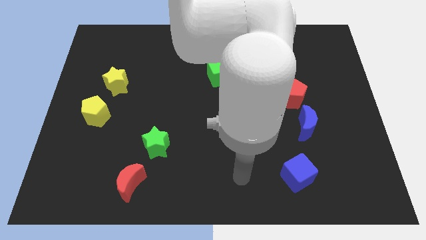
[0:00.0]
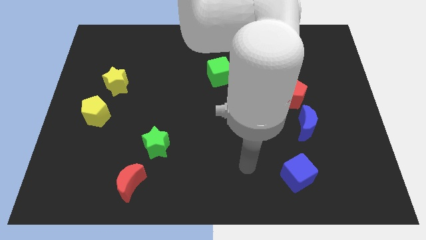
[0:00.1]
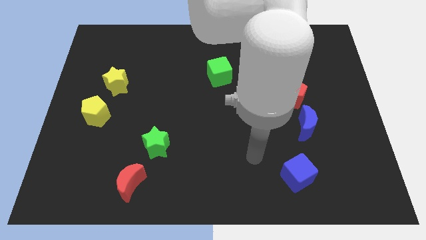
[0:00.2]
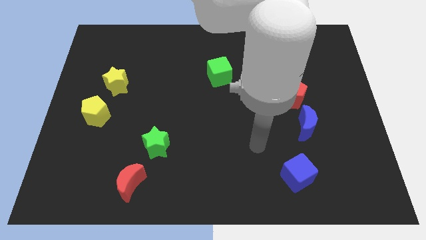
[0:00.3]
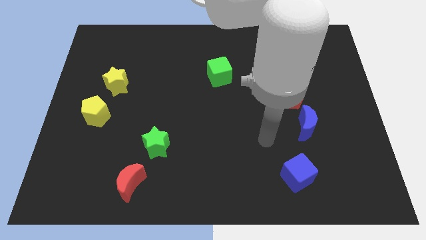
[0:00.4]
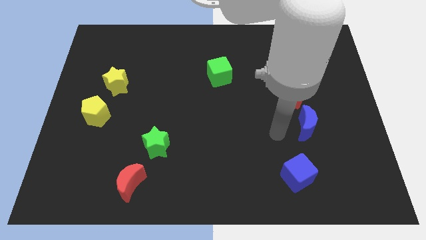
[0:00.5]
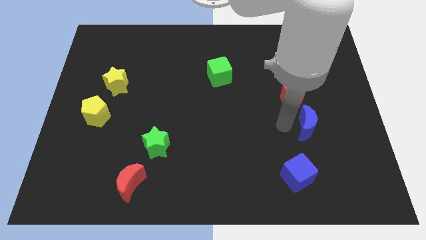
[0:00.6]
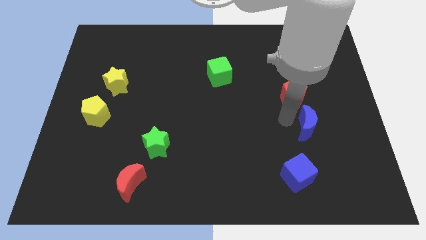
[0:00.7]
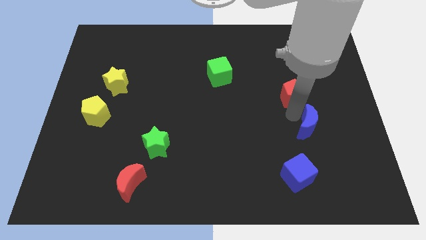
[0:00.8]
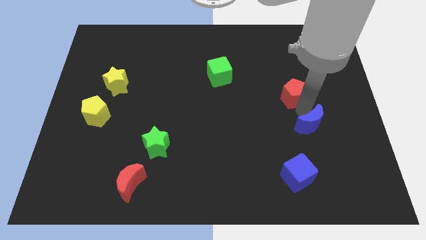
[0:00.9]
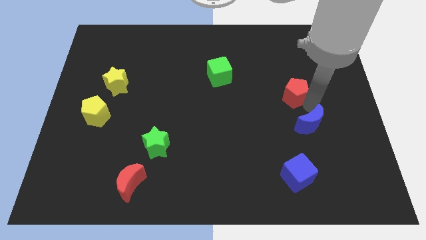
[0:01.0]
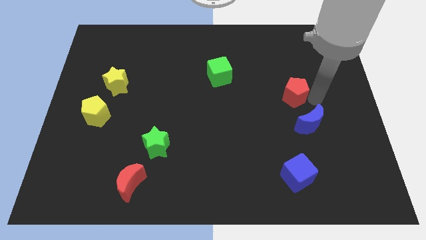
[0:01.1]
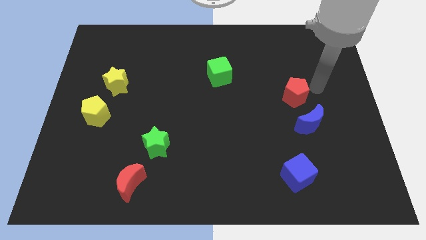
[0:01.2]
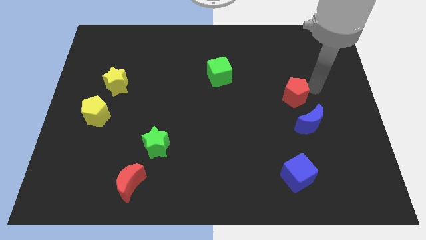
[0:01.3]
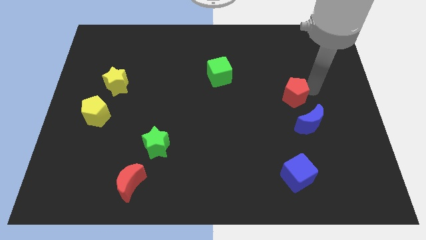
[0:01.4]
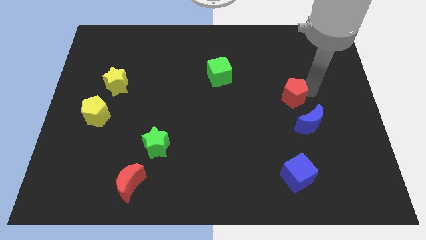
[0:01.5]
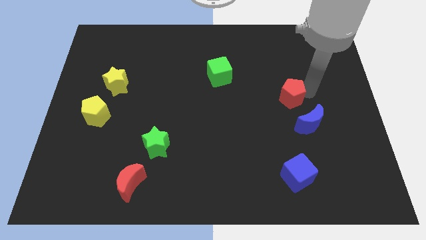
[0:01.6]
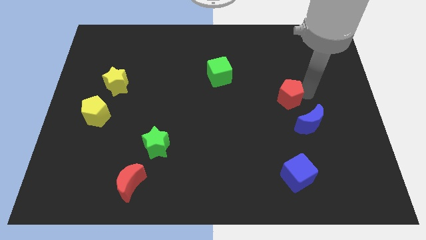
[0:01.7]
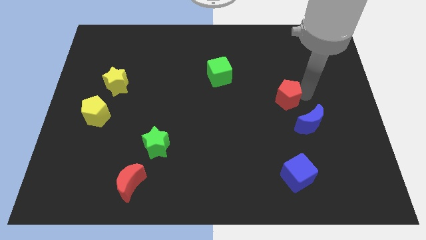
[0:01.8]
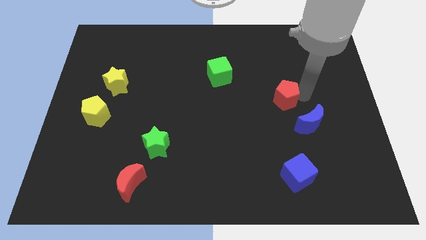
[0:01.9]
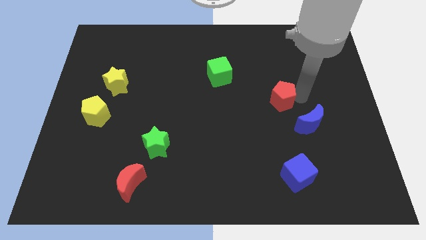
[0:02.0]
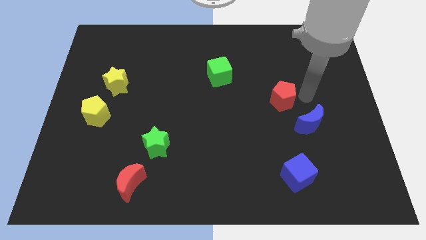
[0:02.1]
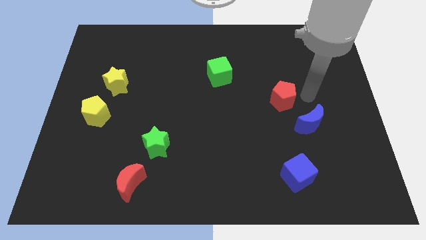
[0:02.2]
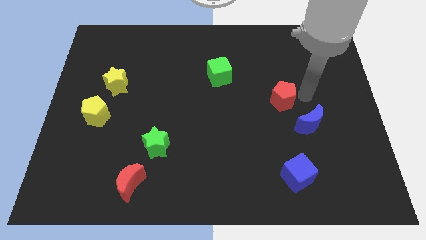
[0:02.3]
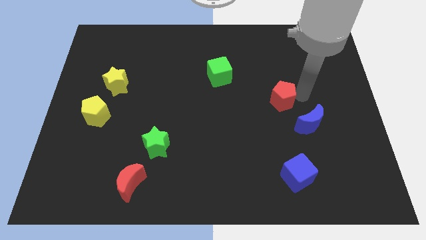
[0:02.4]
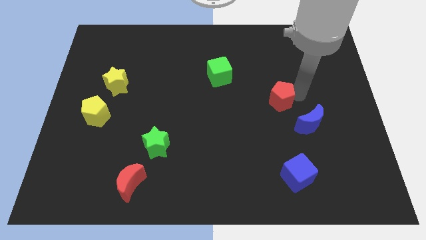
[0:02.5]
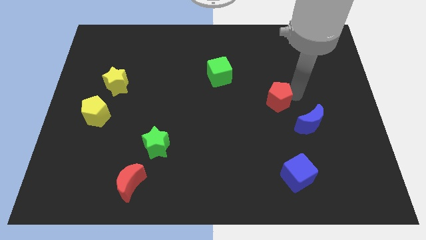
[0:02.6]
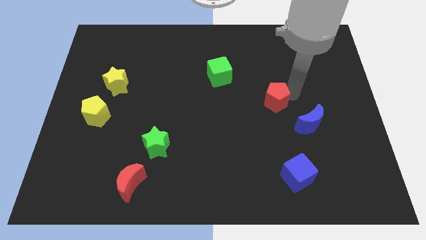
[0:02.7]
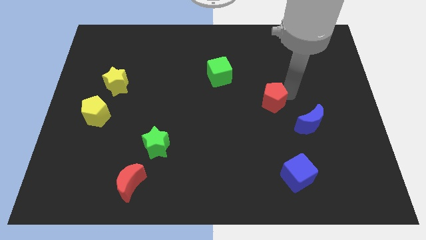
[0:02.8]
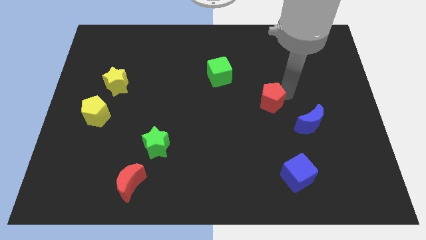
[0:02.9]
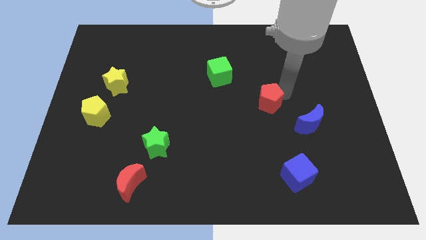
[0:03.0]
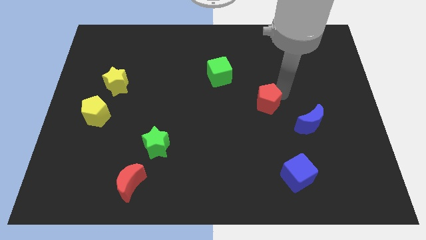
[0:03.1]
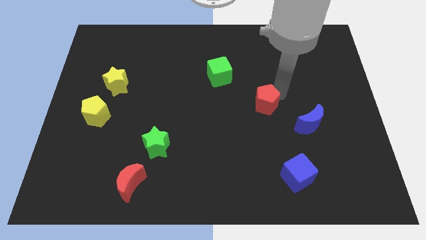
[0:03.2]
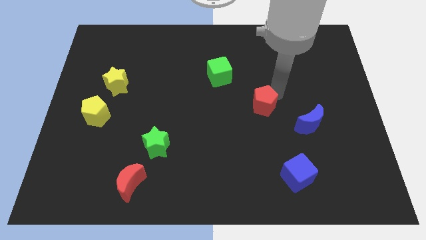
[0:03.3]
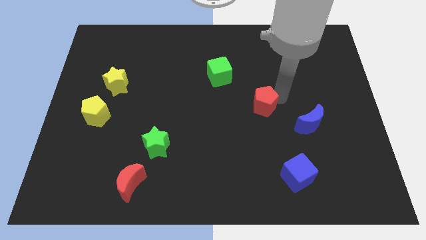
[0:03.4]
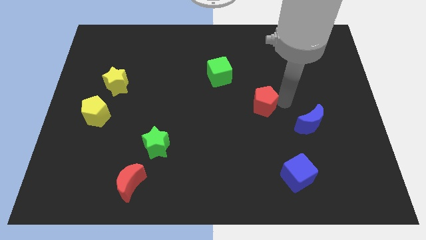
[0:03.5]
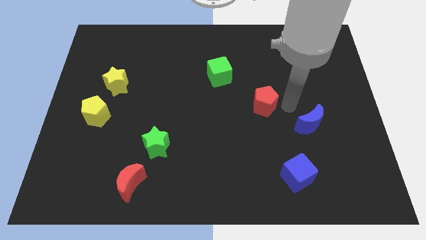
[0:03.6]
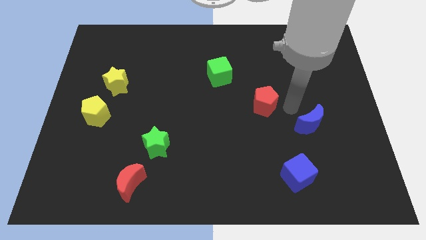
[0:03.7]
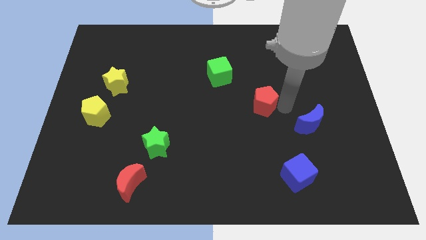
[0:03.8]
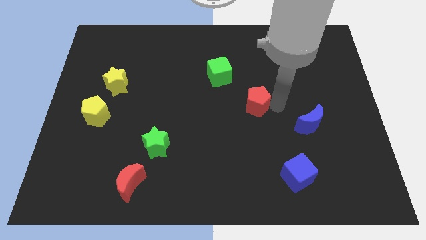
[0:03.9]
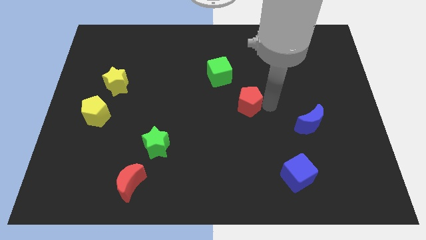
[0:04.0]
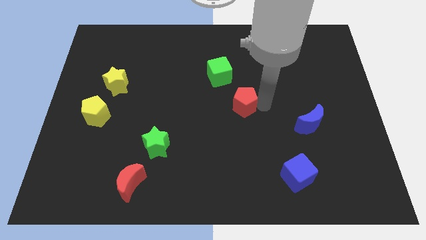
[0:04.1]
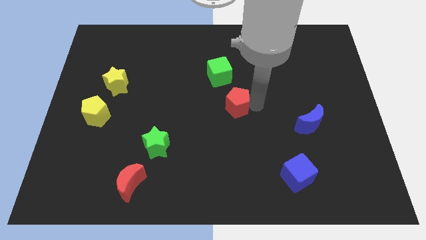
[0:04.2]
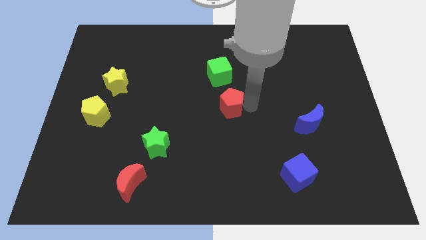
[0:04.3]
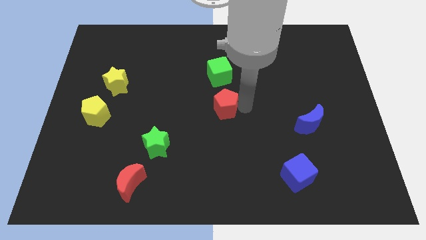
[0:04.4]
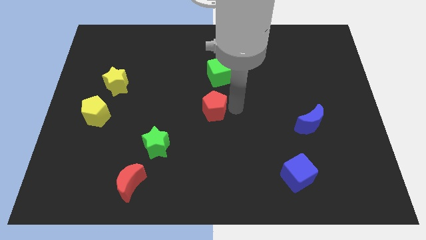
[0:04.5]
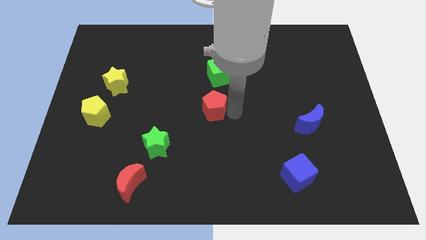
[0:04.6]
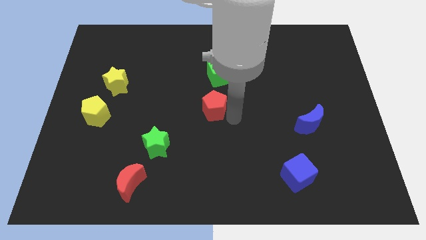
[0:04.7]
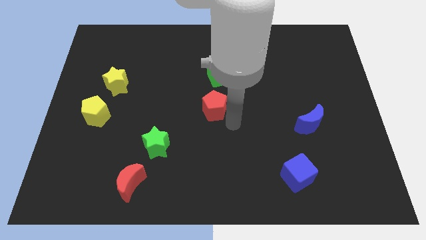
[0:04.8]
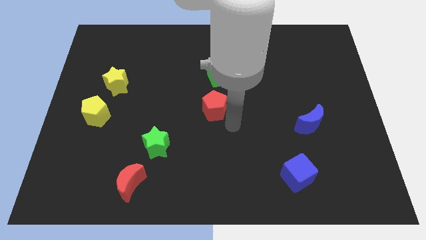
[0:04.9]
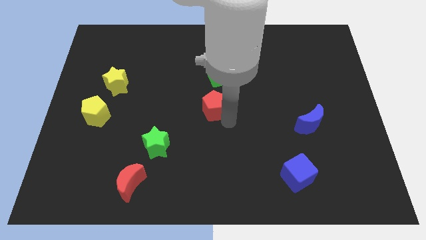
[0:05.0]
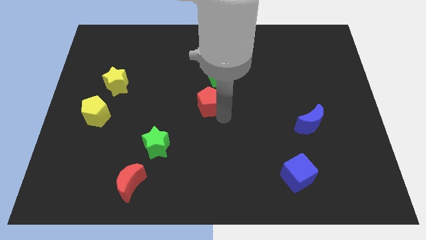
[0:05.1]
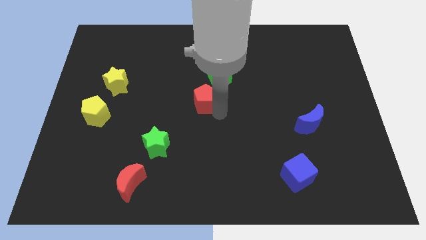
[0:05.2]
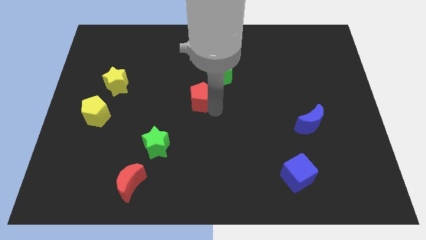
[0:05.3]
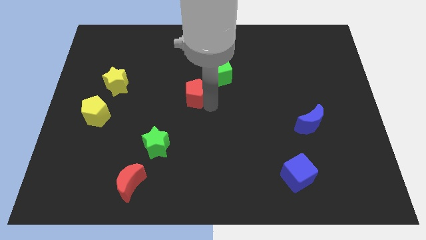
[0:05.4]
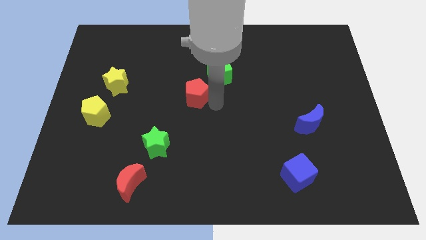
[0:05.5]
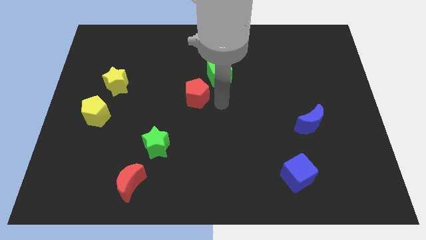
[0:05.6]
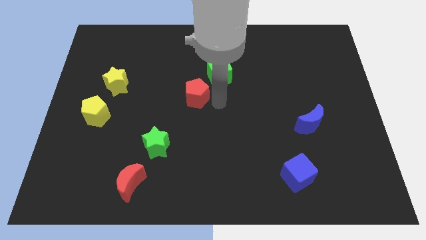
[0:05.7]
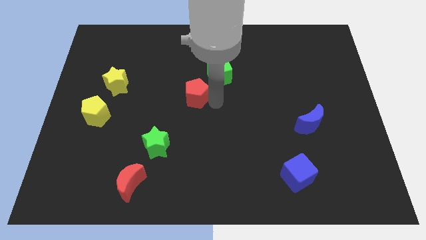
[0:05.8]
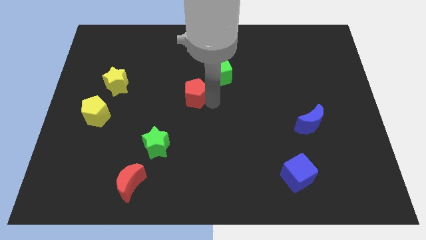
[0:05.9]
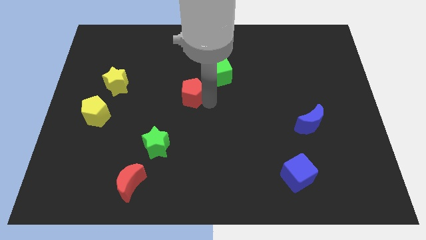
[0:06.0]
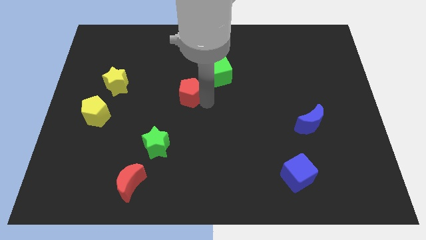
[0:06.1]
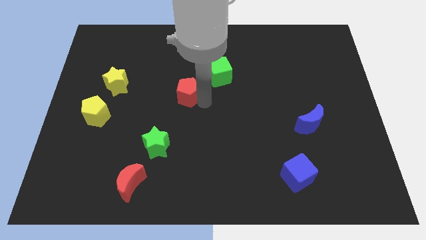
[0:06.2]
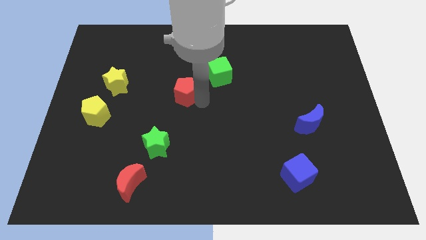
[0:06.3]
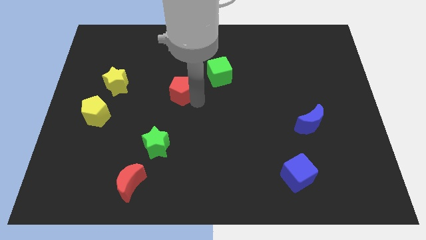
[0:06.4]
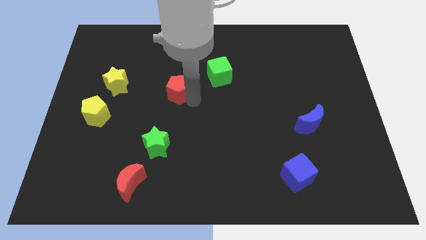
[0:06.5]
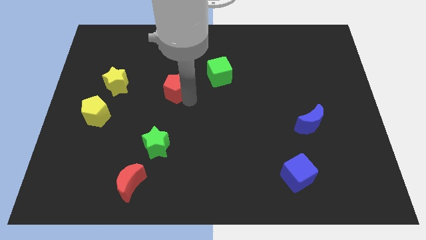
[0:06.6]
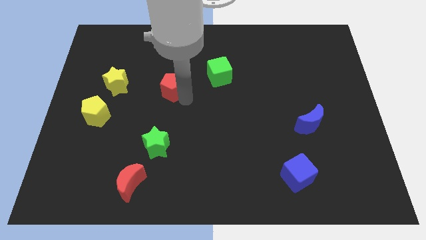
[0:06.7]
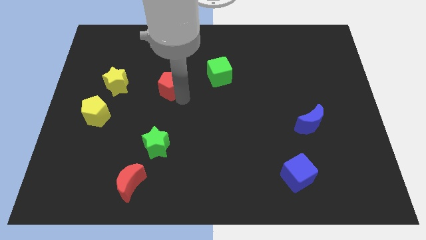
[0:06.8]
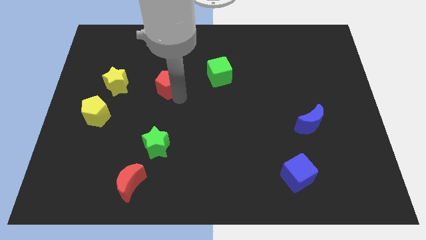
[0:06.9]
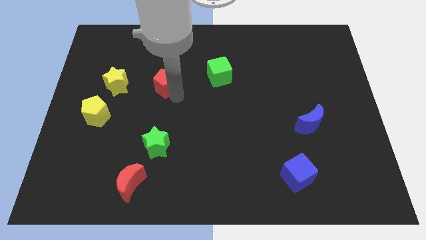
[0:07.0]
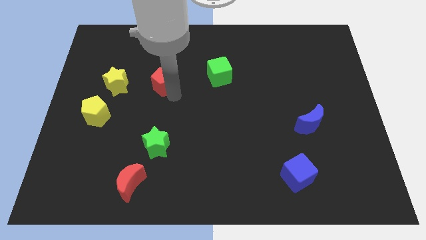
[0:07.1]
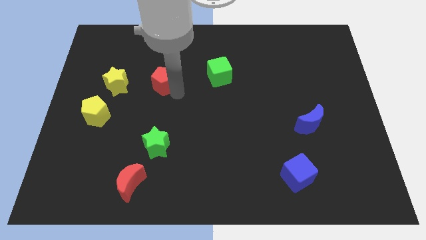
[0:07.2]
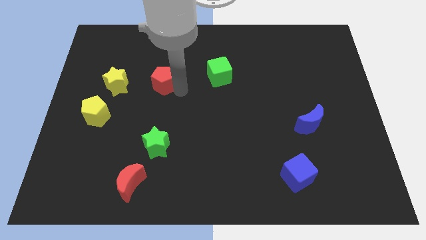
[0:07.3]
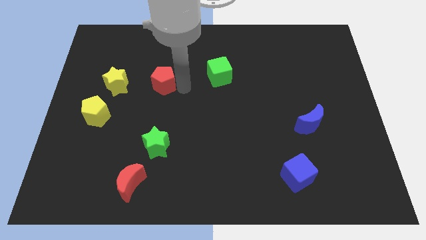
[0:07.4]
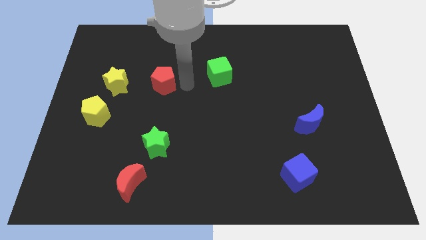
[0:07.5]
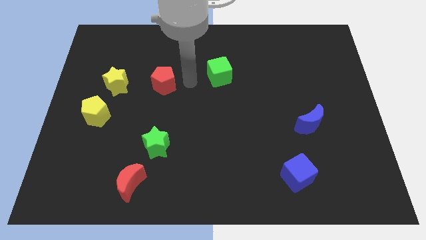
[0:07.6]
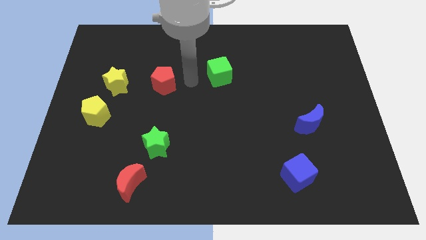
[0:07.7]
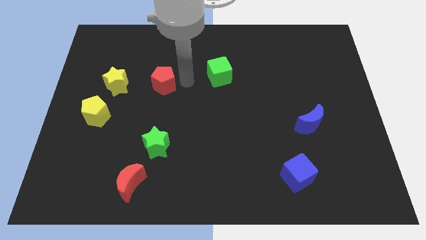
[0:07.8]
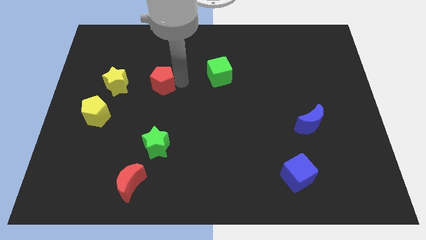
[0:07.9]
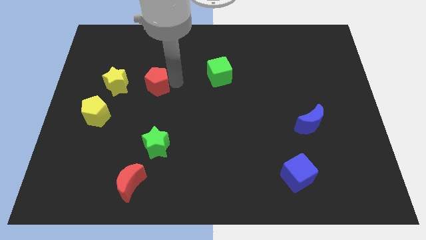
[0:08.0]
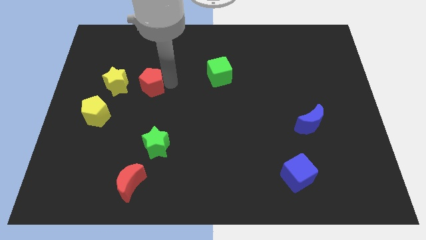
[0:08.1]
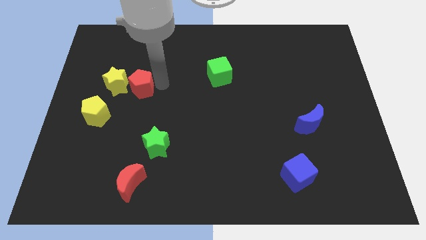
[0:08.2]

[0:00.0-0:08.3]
put the red pentagon next to the yellow star
